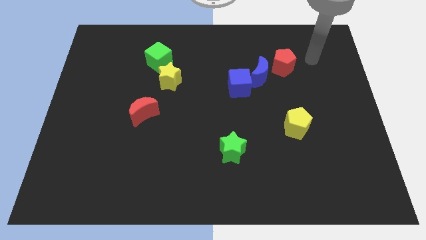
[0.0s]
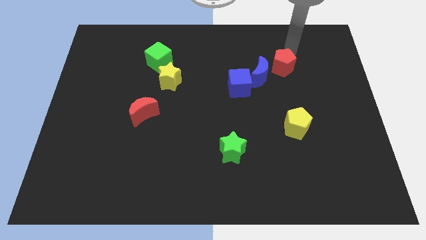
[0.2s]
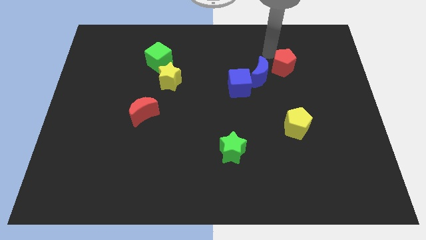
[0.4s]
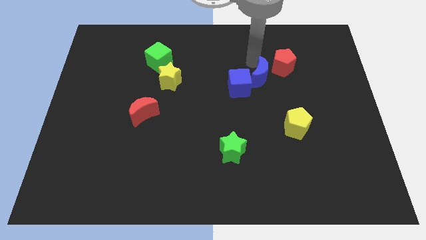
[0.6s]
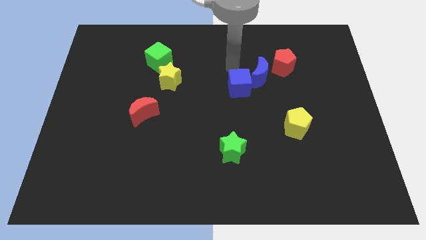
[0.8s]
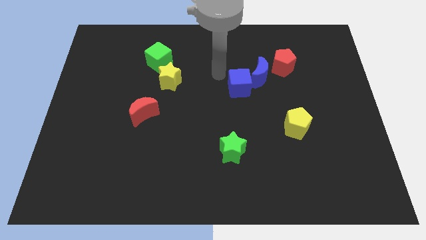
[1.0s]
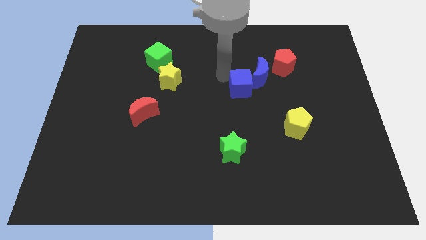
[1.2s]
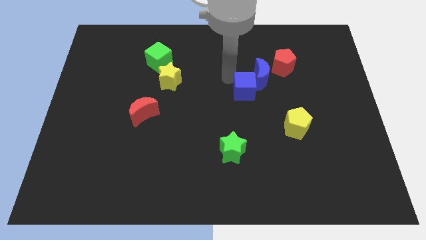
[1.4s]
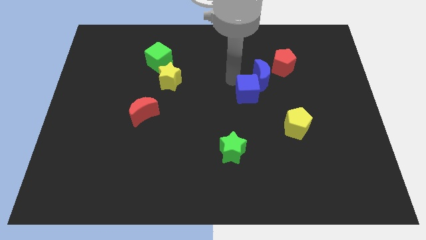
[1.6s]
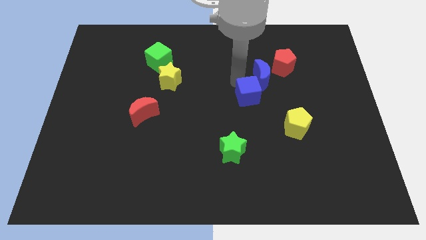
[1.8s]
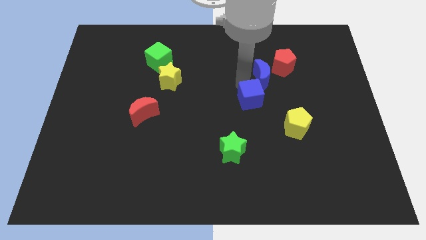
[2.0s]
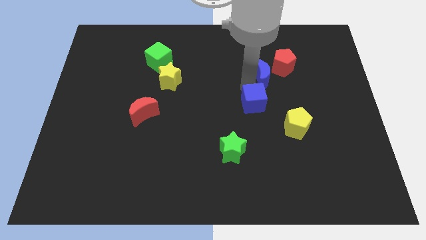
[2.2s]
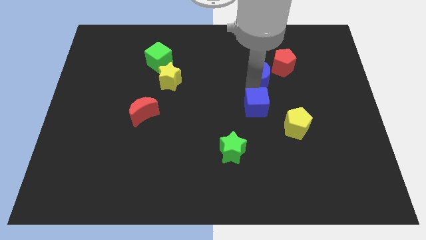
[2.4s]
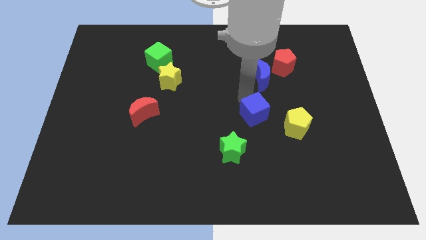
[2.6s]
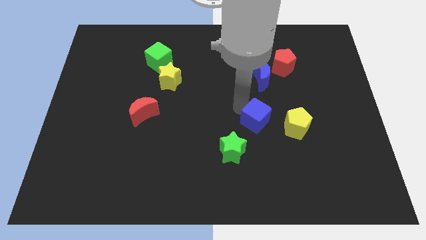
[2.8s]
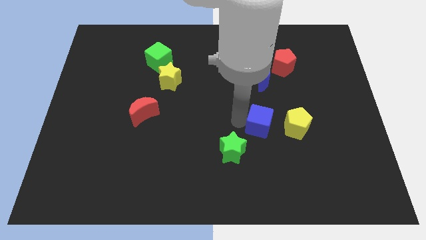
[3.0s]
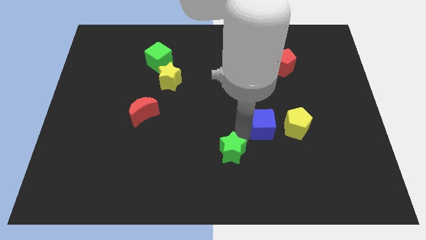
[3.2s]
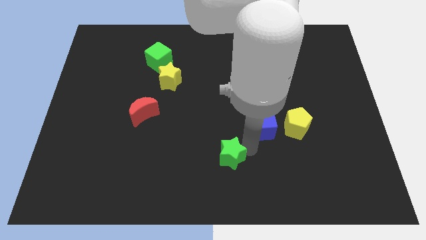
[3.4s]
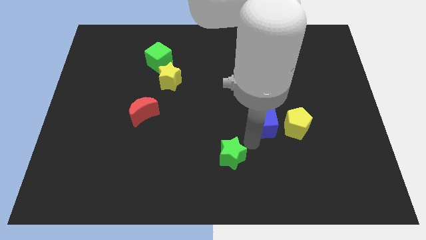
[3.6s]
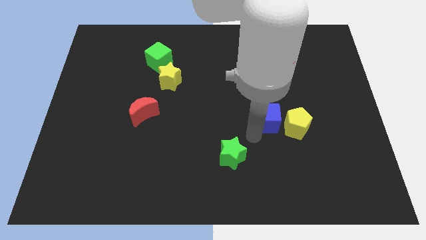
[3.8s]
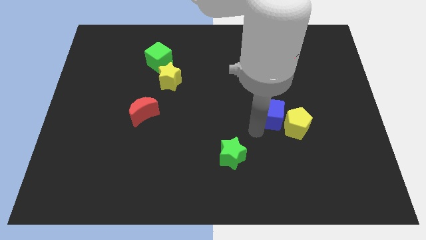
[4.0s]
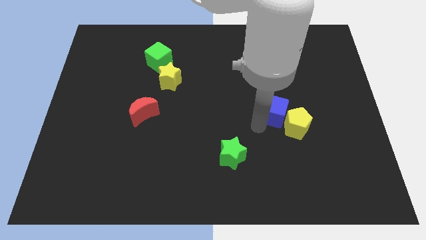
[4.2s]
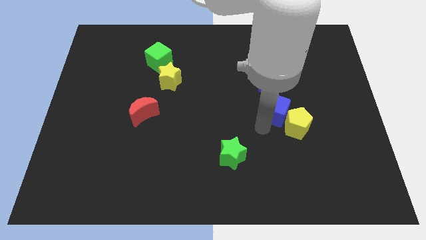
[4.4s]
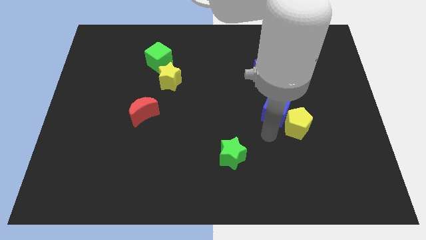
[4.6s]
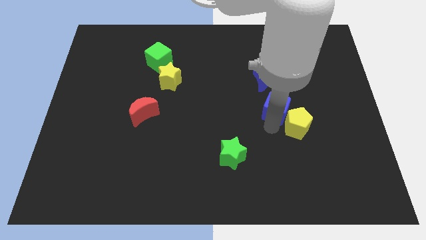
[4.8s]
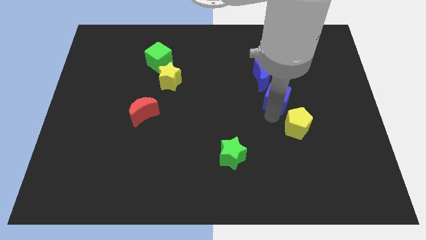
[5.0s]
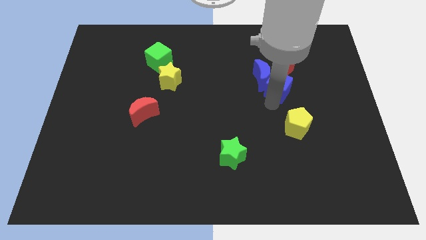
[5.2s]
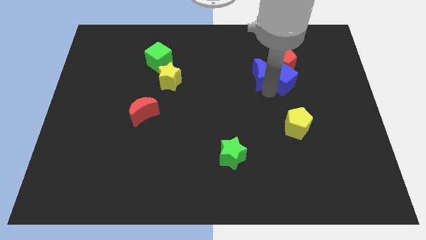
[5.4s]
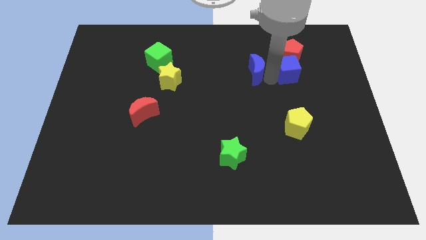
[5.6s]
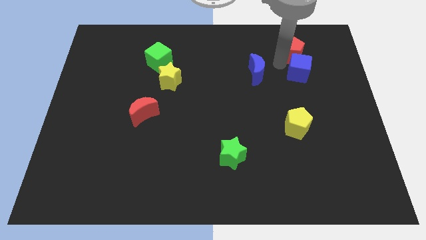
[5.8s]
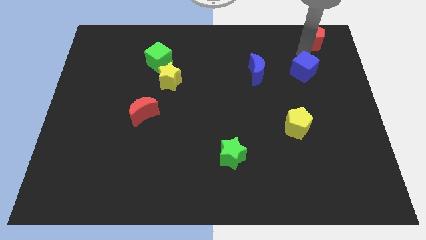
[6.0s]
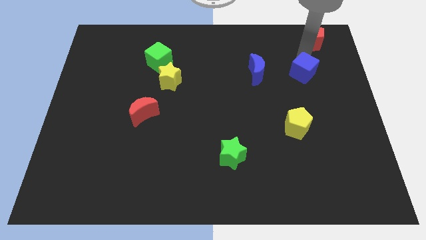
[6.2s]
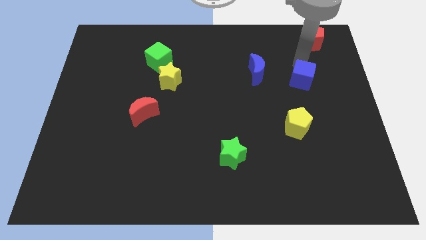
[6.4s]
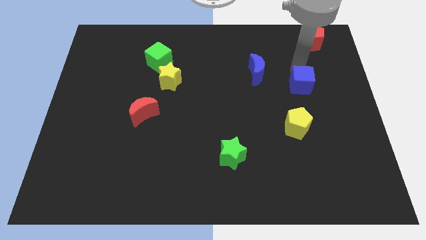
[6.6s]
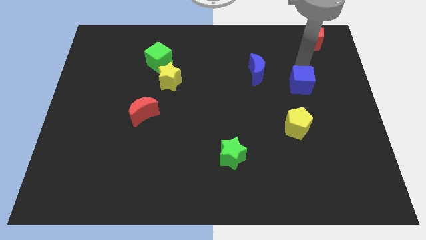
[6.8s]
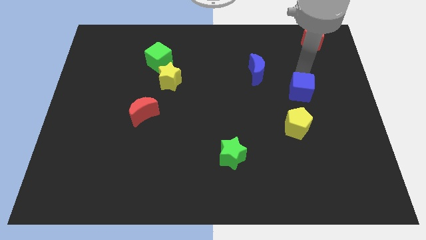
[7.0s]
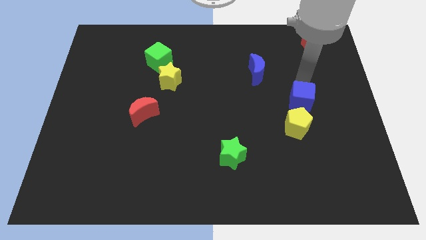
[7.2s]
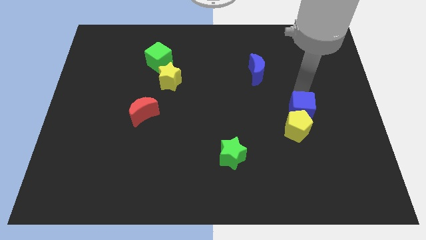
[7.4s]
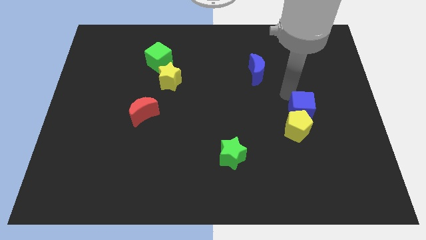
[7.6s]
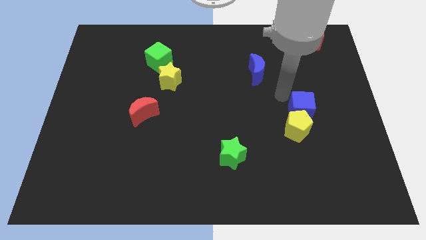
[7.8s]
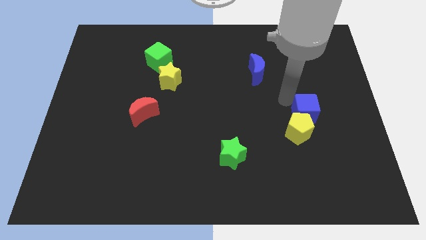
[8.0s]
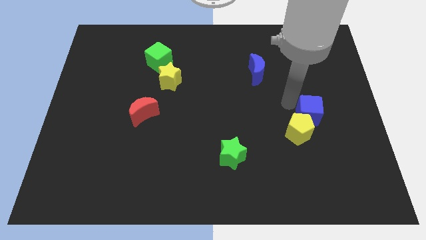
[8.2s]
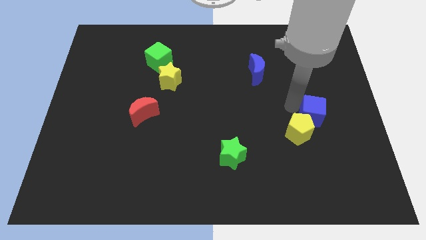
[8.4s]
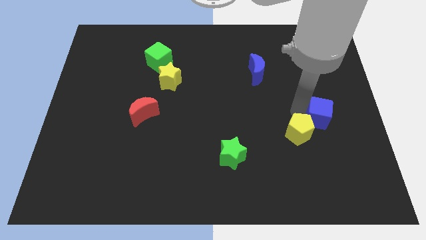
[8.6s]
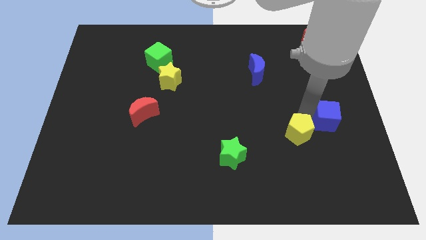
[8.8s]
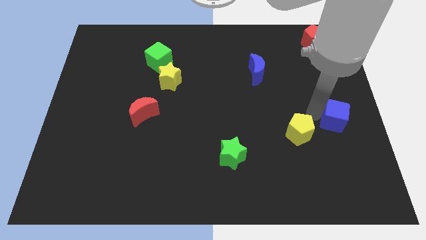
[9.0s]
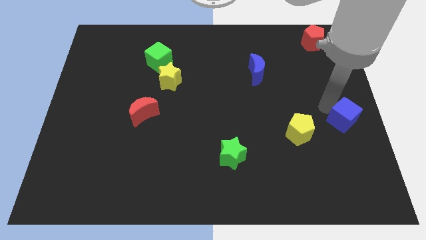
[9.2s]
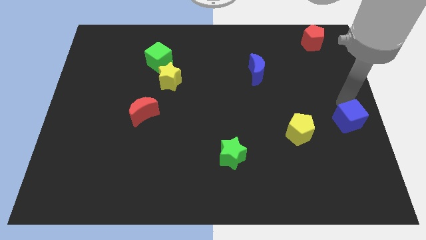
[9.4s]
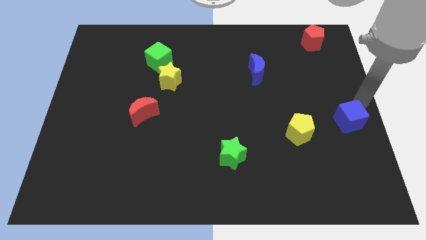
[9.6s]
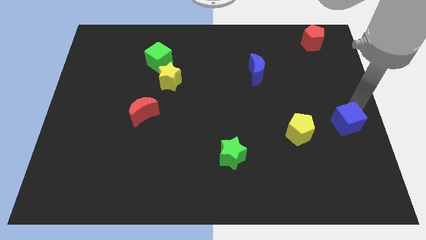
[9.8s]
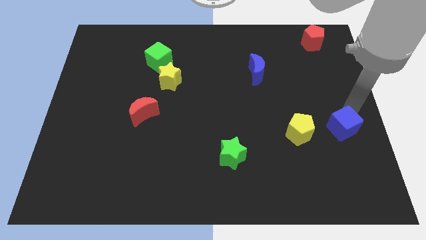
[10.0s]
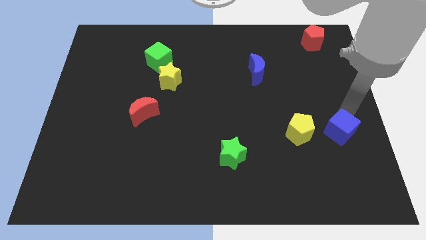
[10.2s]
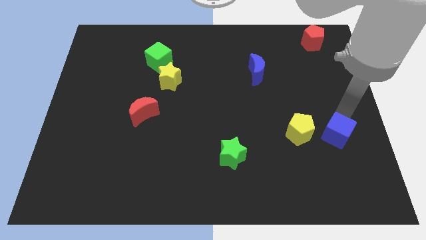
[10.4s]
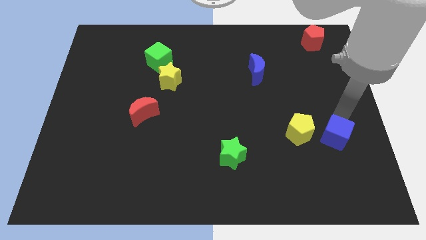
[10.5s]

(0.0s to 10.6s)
move the blue cube to the bottom right of the yellow pentagon

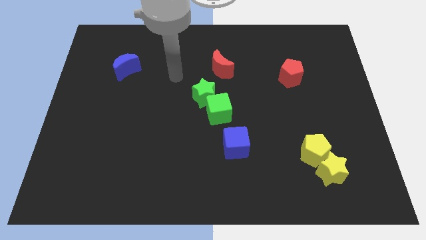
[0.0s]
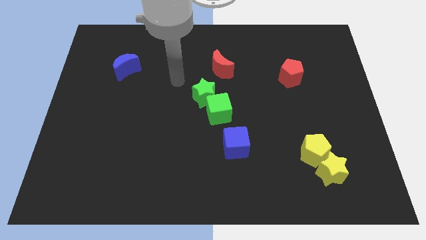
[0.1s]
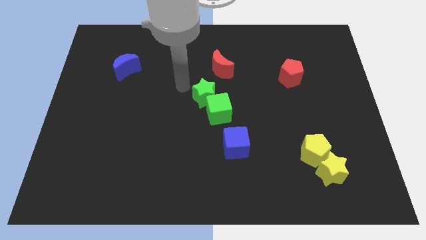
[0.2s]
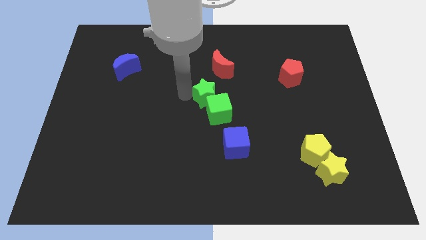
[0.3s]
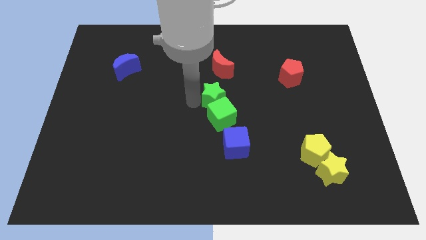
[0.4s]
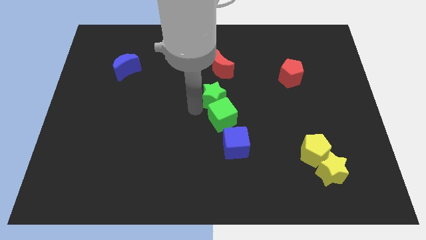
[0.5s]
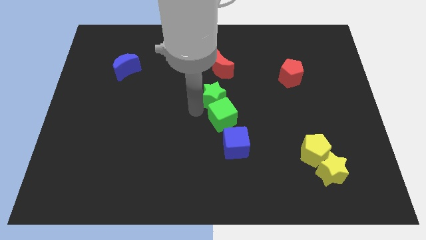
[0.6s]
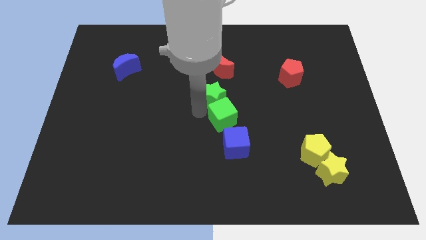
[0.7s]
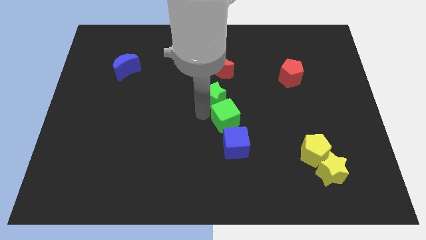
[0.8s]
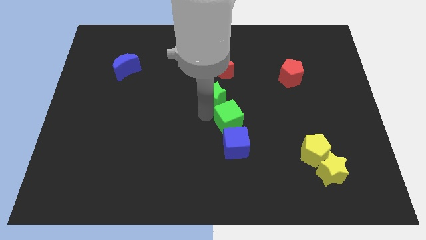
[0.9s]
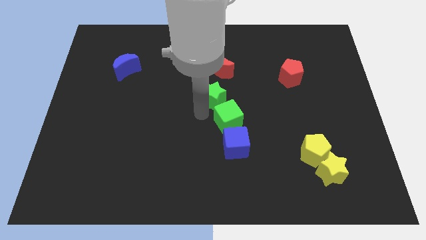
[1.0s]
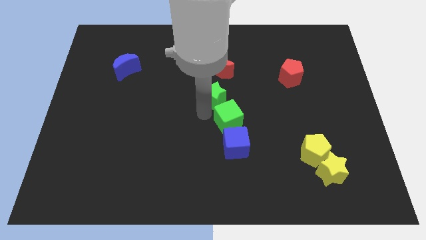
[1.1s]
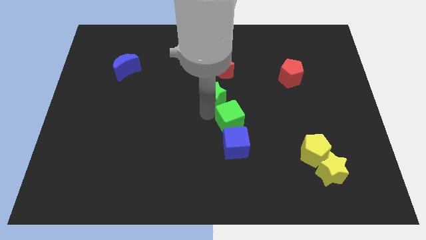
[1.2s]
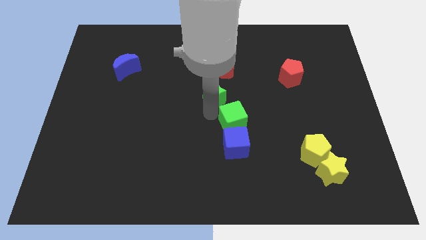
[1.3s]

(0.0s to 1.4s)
put the green cube diagonally up and to the right of the blue cube

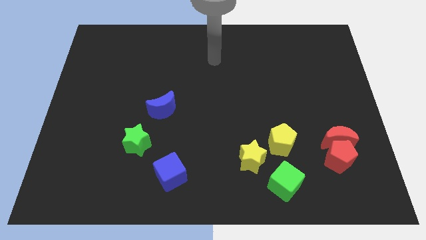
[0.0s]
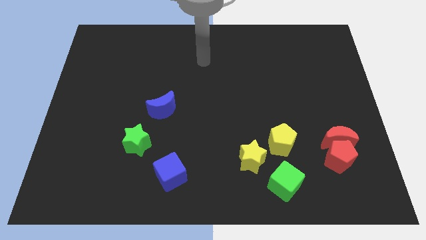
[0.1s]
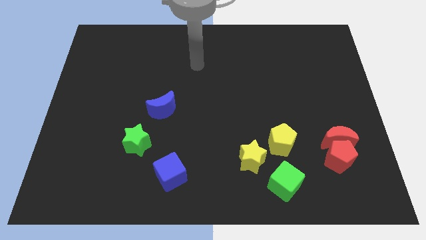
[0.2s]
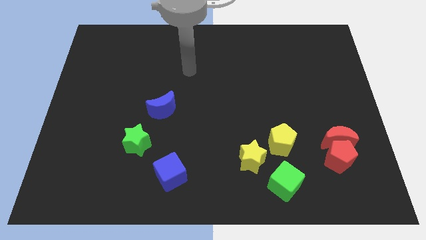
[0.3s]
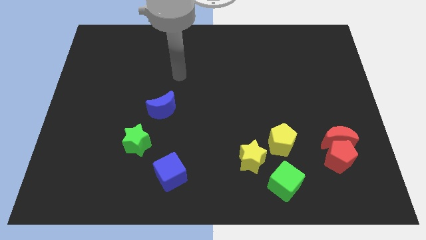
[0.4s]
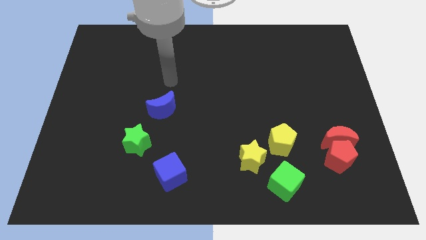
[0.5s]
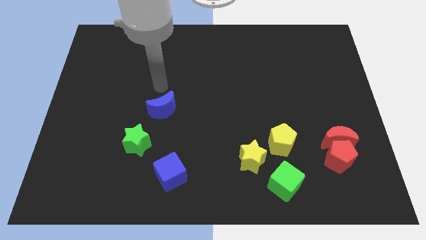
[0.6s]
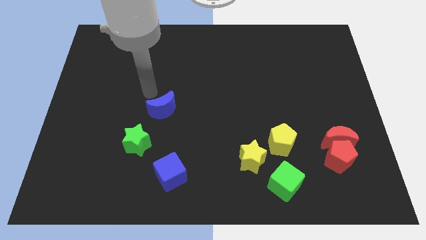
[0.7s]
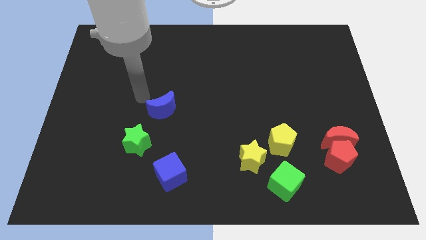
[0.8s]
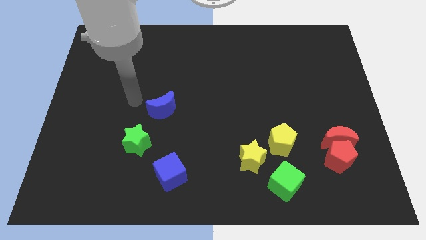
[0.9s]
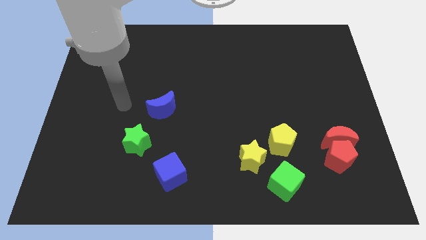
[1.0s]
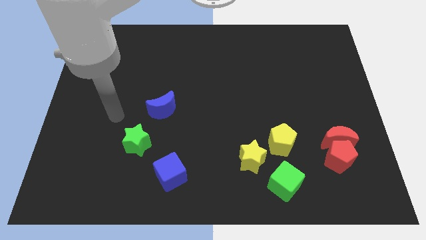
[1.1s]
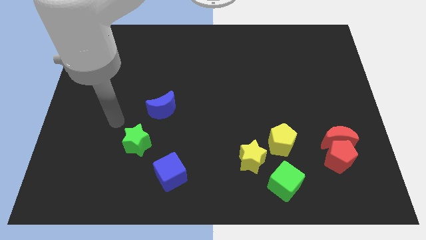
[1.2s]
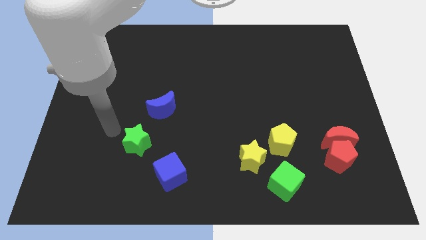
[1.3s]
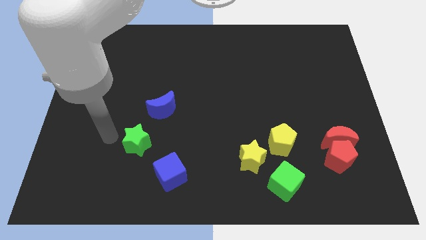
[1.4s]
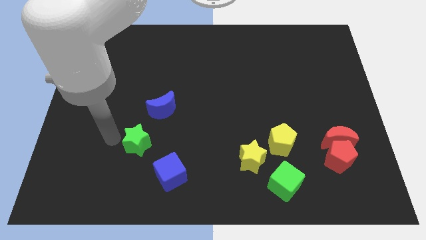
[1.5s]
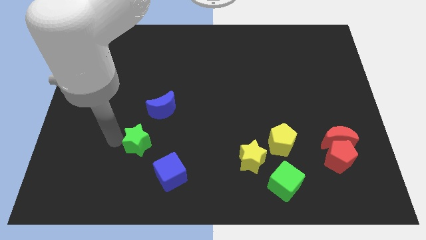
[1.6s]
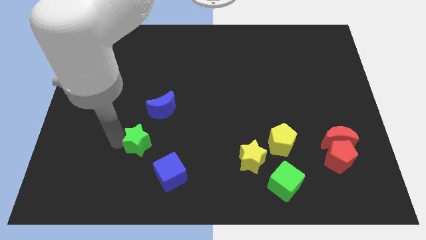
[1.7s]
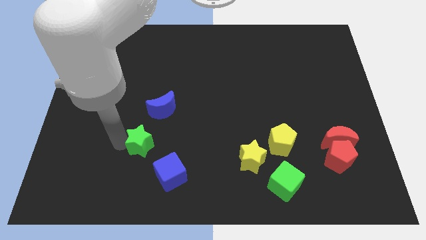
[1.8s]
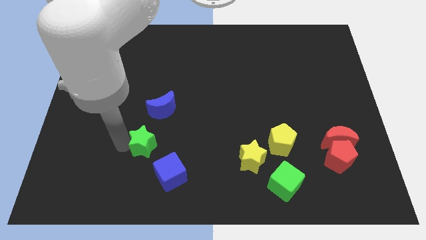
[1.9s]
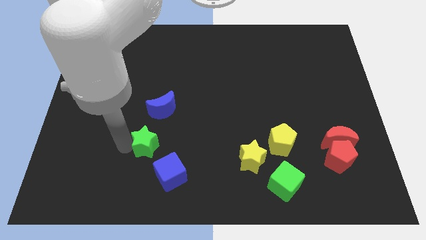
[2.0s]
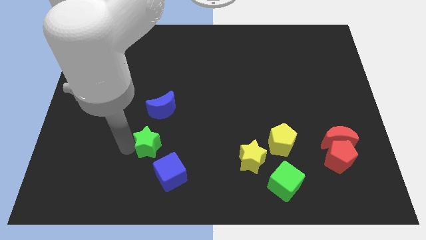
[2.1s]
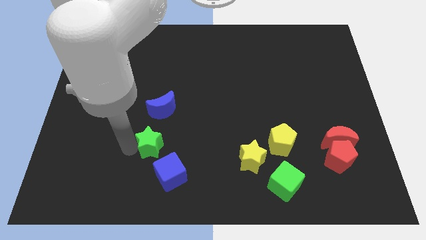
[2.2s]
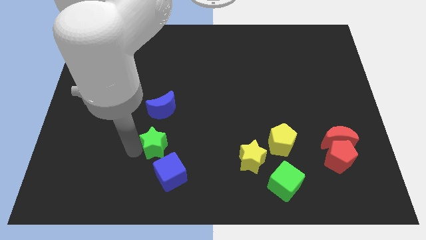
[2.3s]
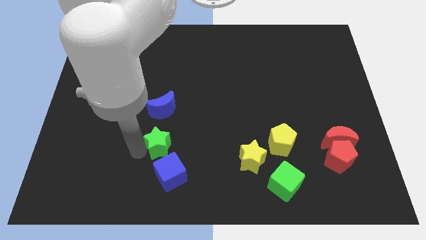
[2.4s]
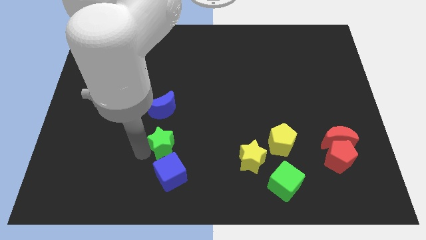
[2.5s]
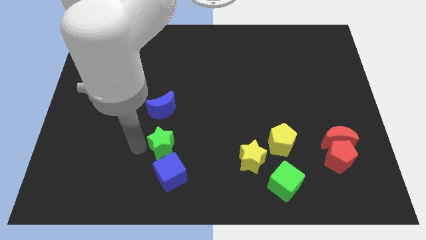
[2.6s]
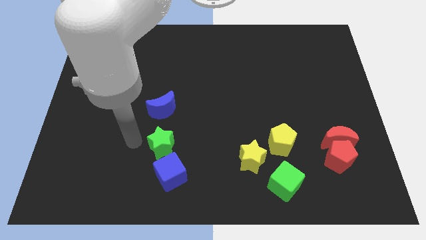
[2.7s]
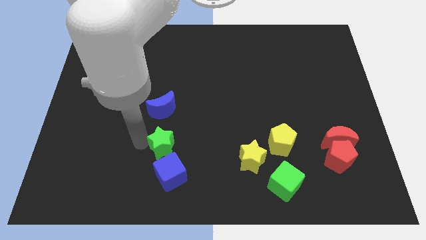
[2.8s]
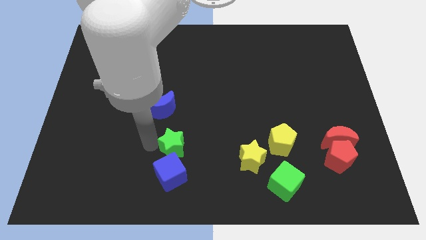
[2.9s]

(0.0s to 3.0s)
move the green star diagonally up and to the right of the blue cube
